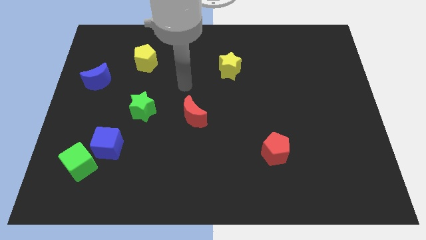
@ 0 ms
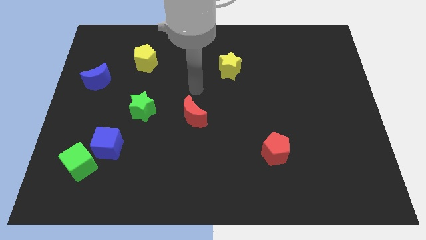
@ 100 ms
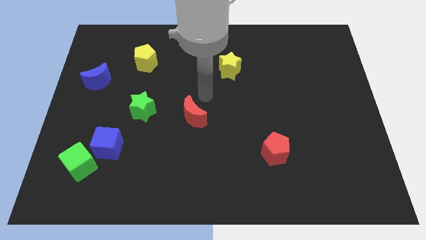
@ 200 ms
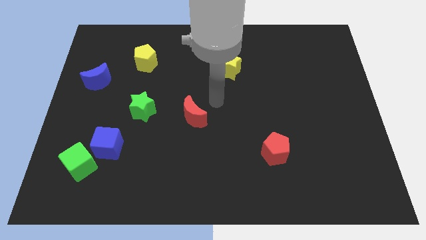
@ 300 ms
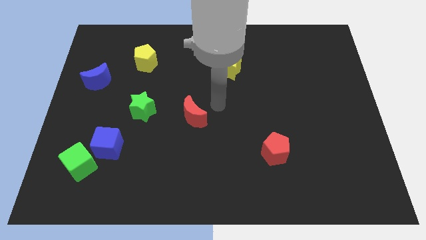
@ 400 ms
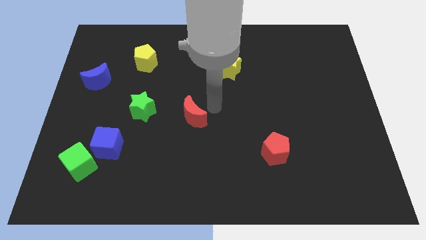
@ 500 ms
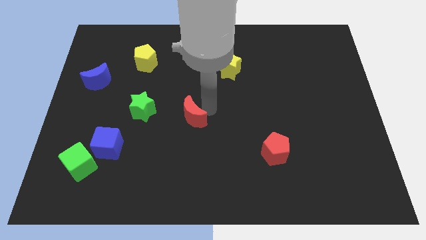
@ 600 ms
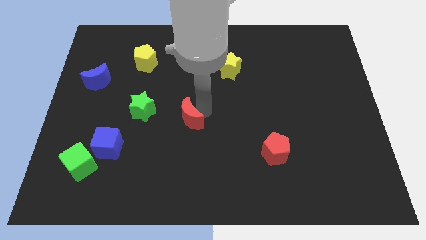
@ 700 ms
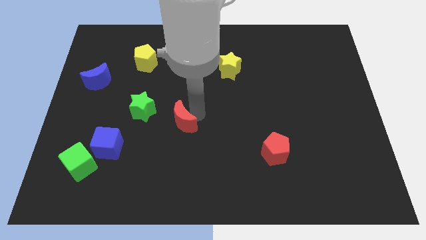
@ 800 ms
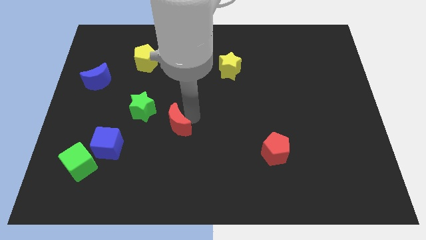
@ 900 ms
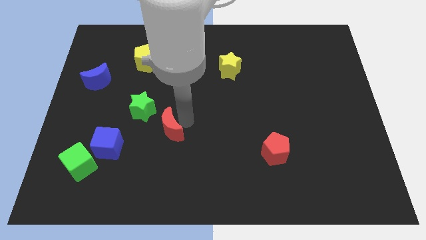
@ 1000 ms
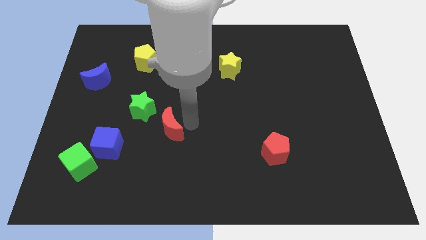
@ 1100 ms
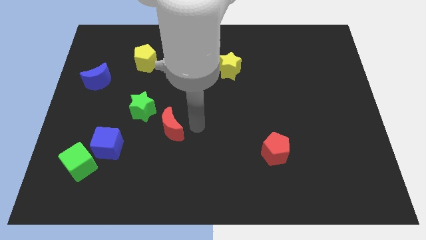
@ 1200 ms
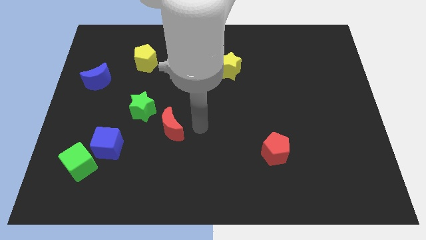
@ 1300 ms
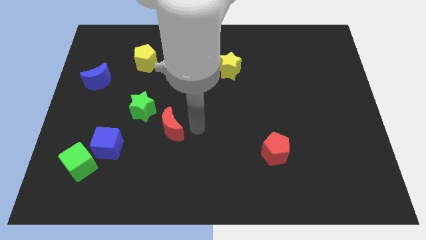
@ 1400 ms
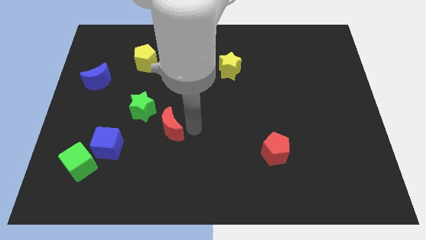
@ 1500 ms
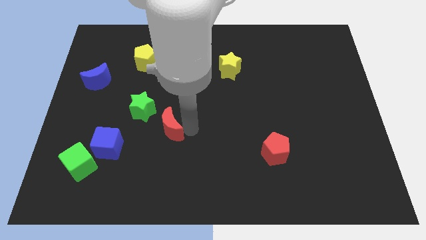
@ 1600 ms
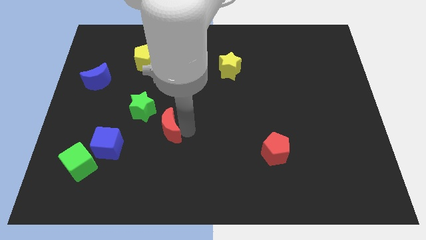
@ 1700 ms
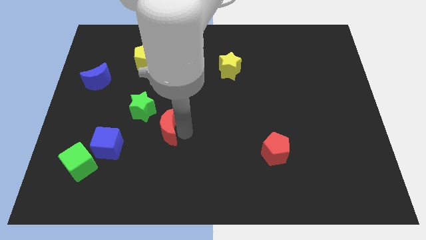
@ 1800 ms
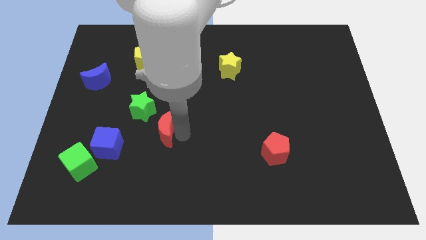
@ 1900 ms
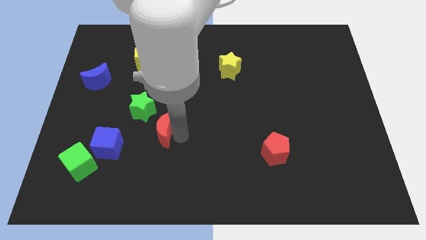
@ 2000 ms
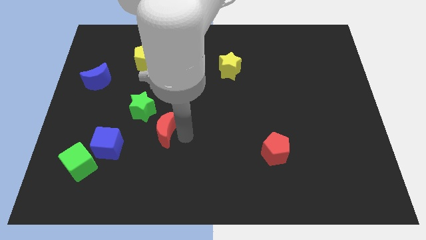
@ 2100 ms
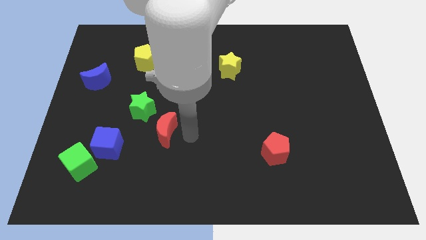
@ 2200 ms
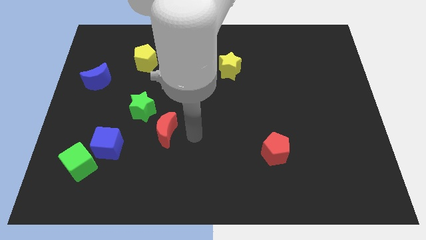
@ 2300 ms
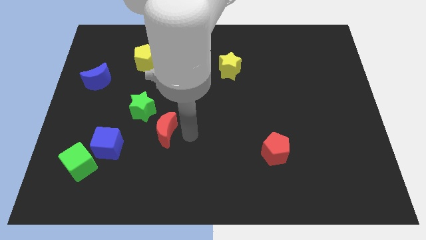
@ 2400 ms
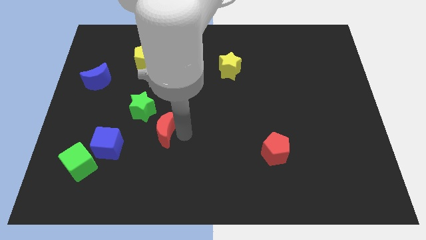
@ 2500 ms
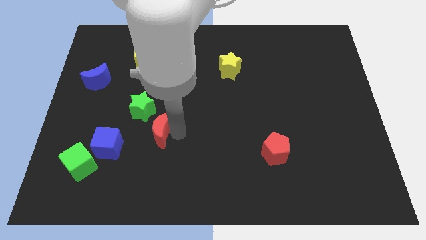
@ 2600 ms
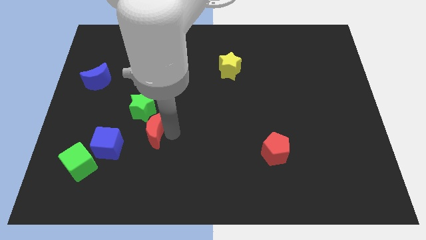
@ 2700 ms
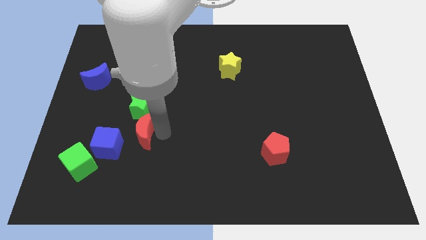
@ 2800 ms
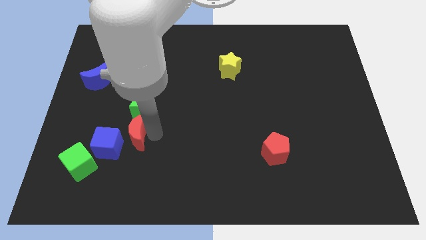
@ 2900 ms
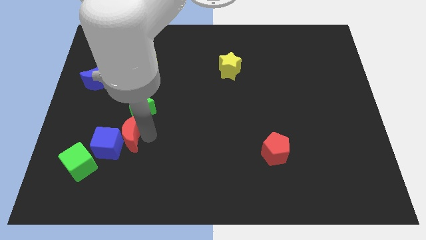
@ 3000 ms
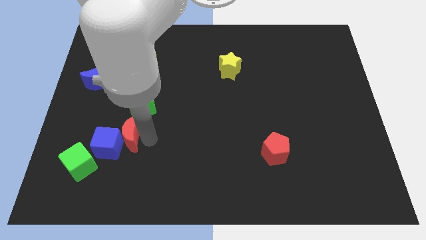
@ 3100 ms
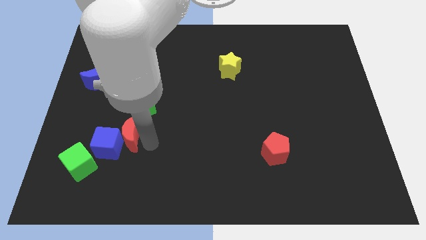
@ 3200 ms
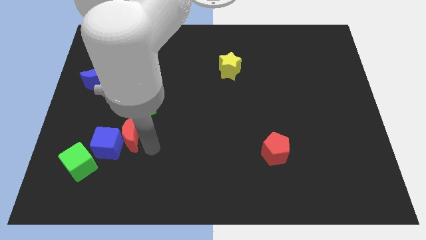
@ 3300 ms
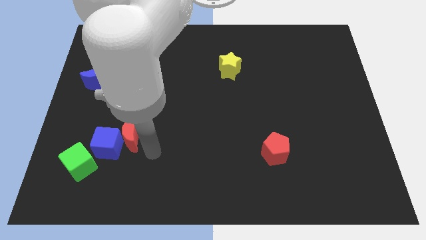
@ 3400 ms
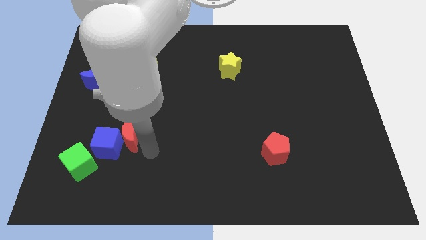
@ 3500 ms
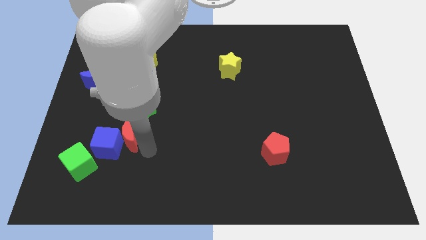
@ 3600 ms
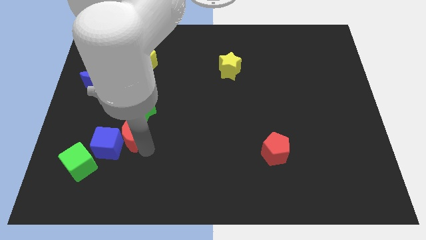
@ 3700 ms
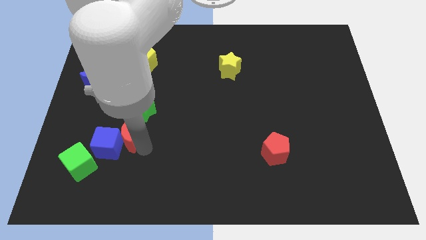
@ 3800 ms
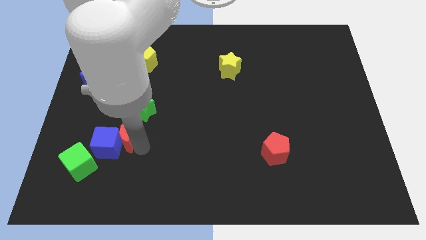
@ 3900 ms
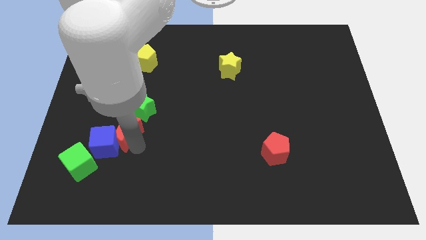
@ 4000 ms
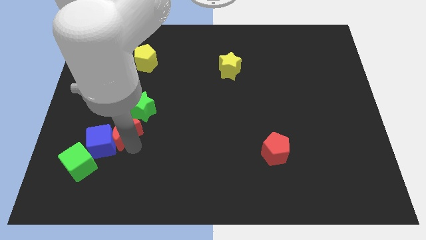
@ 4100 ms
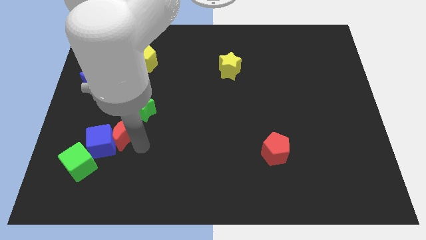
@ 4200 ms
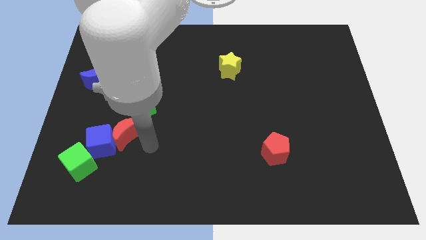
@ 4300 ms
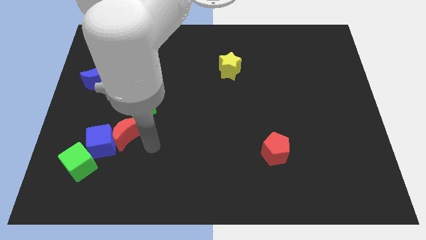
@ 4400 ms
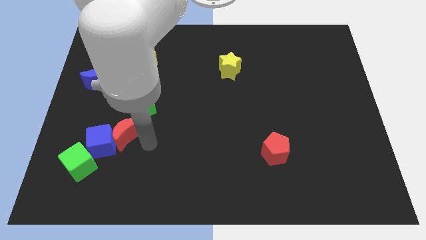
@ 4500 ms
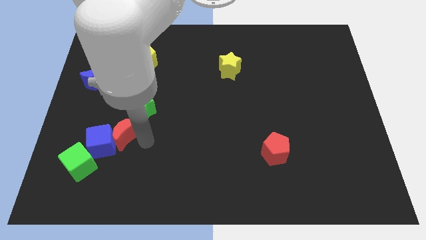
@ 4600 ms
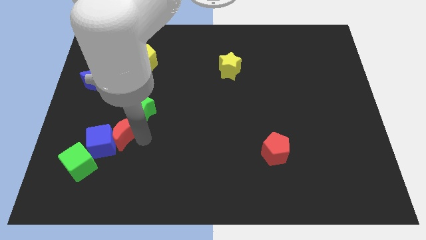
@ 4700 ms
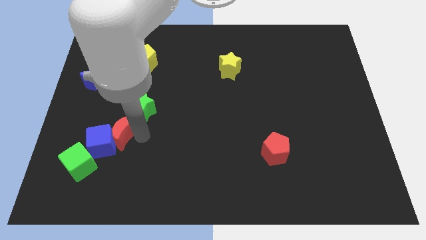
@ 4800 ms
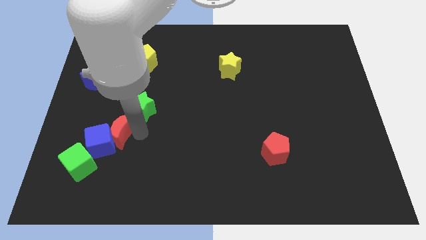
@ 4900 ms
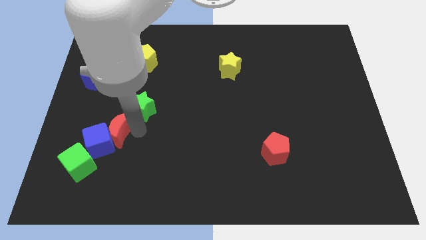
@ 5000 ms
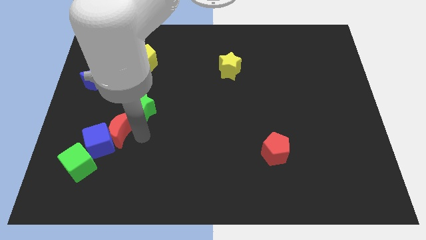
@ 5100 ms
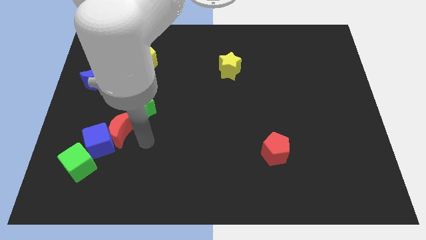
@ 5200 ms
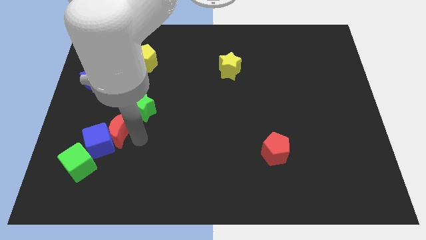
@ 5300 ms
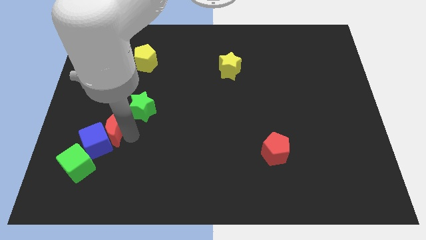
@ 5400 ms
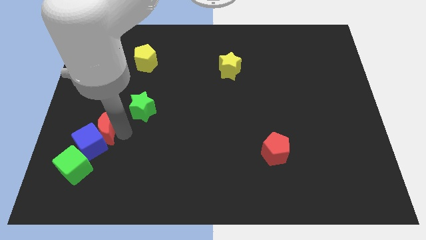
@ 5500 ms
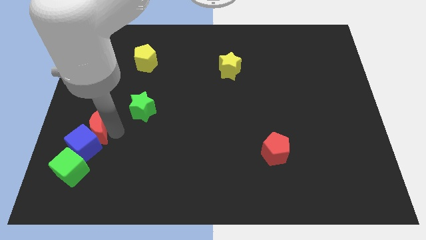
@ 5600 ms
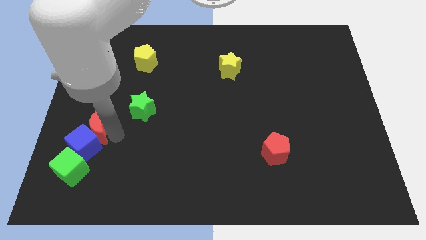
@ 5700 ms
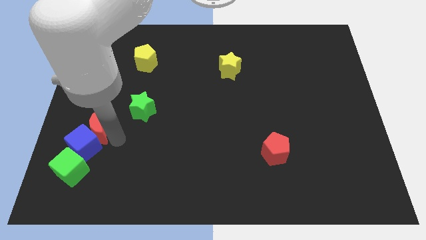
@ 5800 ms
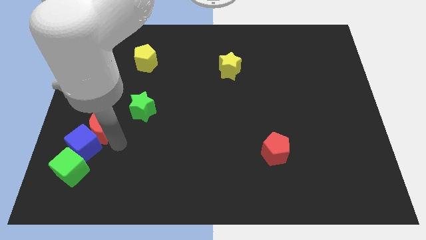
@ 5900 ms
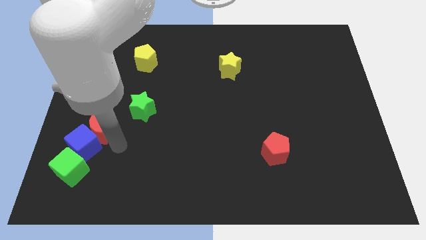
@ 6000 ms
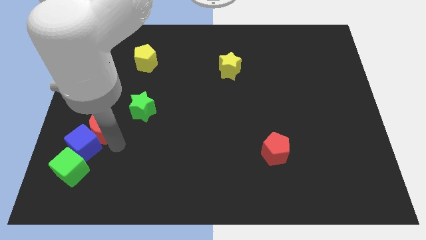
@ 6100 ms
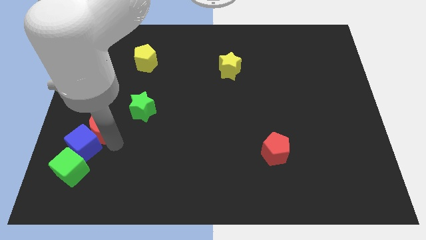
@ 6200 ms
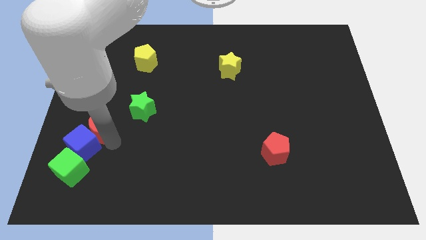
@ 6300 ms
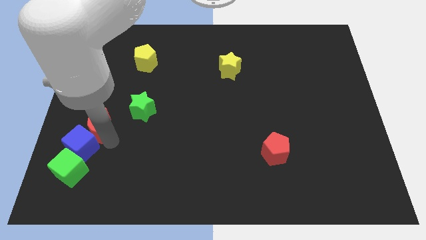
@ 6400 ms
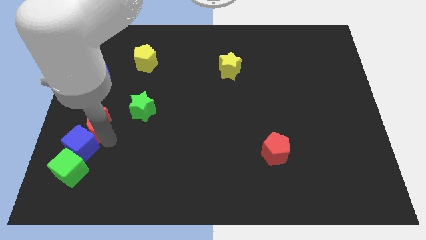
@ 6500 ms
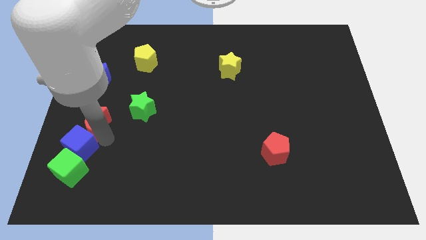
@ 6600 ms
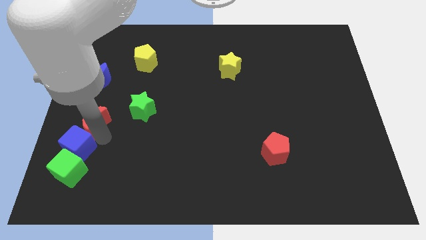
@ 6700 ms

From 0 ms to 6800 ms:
push the red moon to the left side of the board
